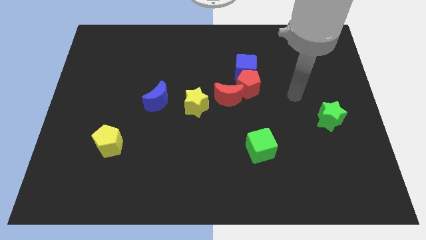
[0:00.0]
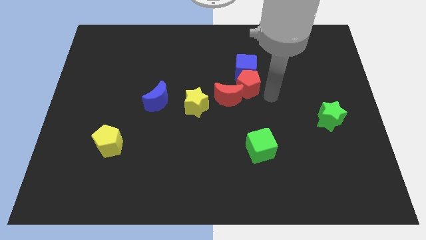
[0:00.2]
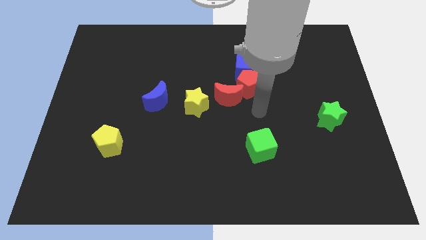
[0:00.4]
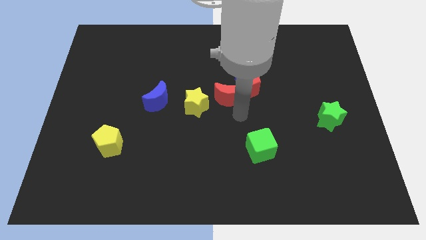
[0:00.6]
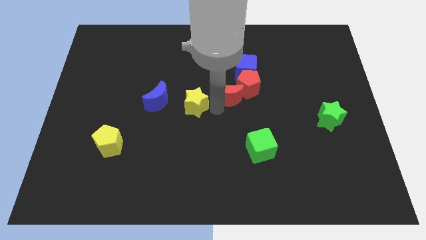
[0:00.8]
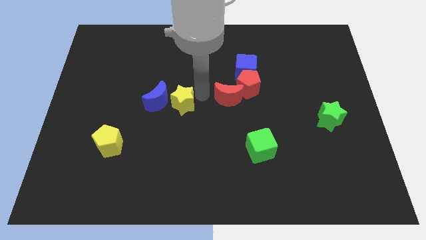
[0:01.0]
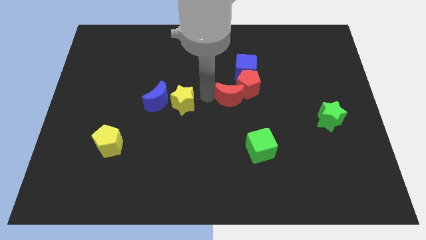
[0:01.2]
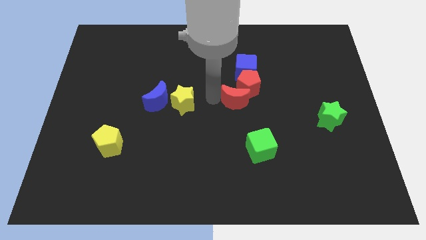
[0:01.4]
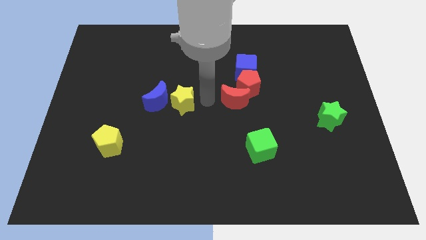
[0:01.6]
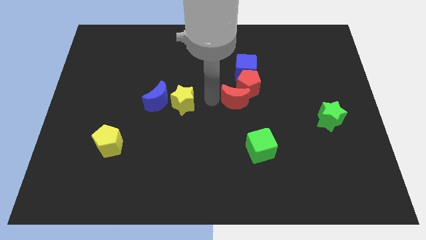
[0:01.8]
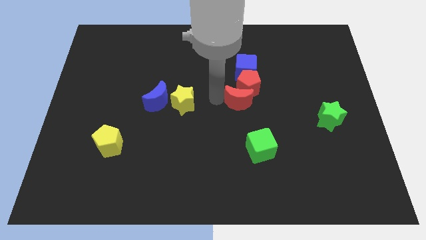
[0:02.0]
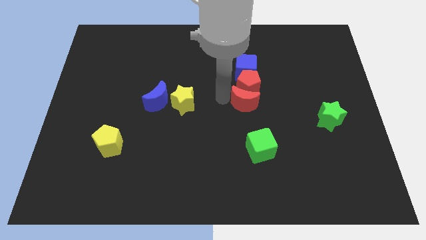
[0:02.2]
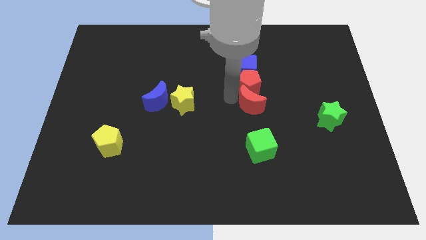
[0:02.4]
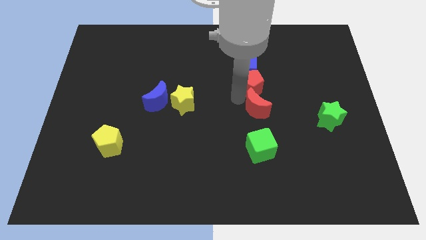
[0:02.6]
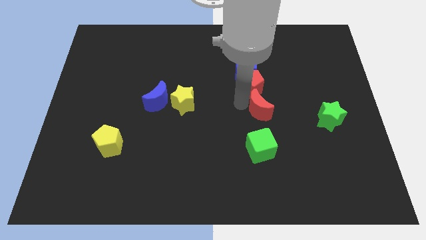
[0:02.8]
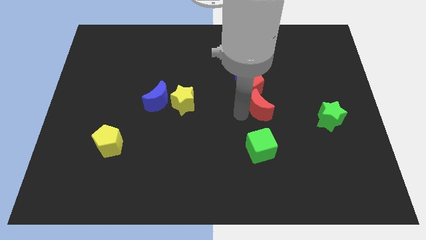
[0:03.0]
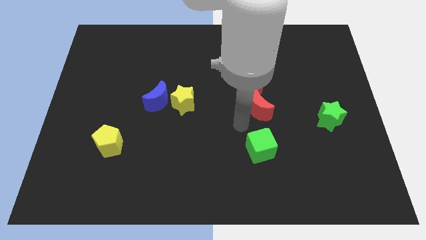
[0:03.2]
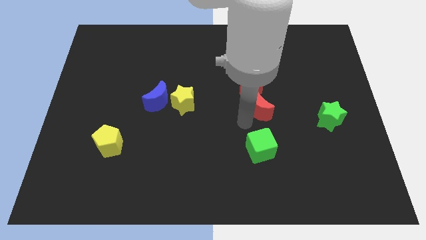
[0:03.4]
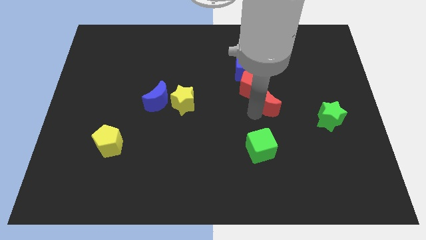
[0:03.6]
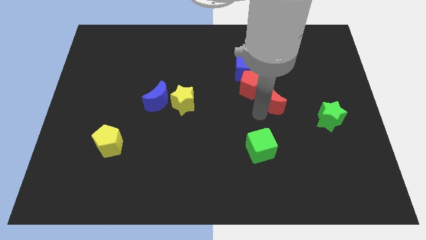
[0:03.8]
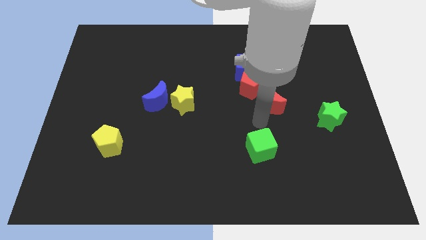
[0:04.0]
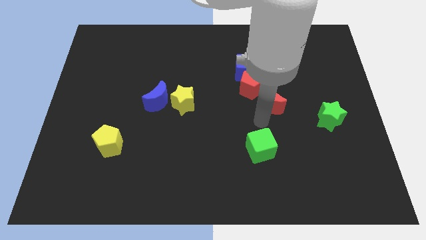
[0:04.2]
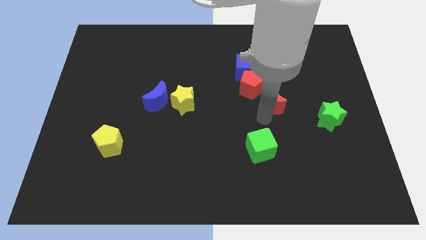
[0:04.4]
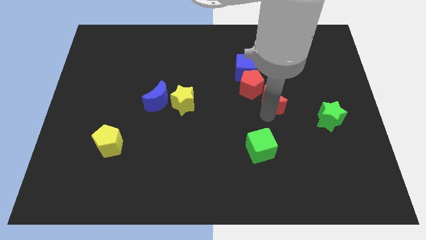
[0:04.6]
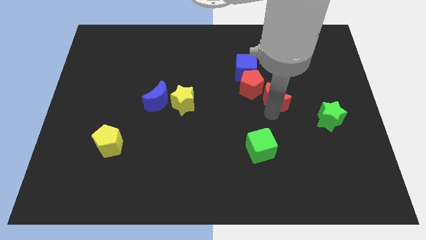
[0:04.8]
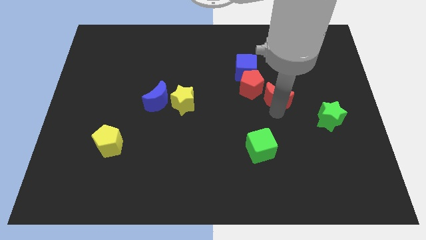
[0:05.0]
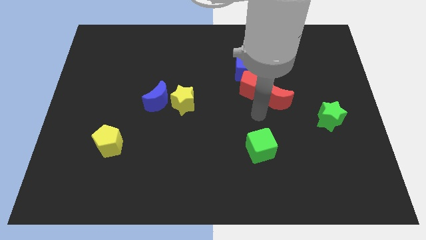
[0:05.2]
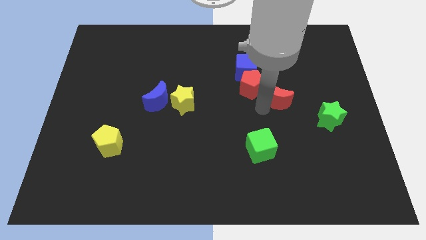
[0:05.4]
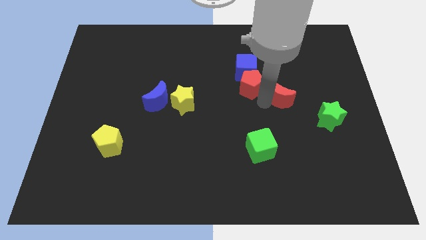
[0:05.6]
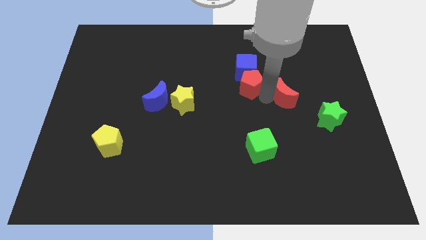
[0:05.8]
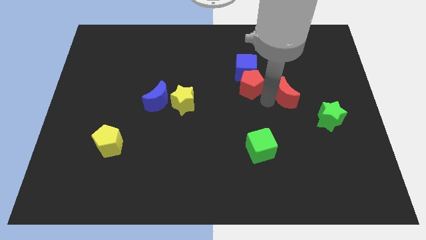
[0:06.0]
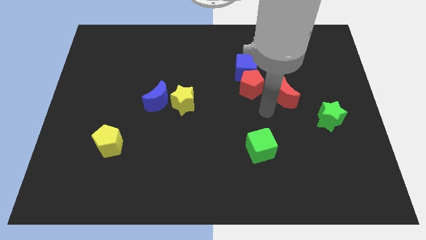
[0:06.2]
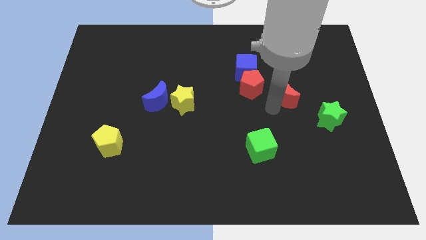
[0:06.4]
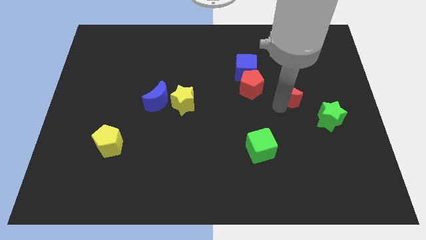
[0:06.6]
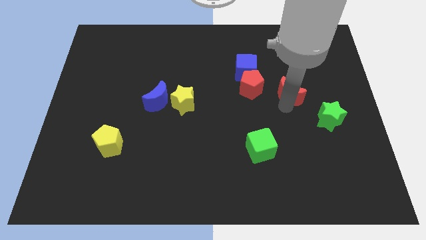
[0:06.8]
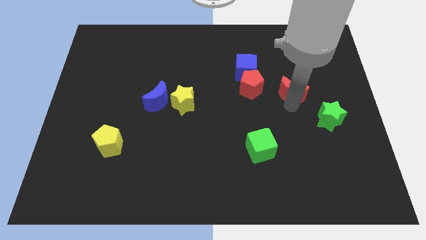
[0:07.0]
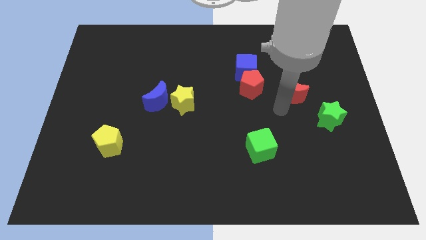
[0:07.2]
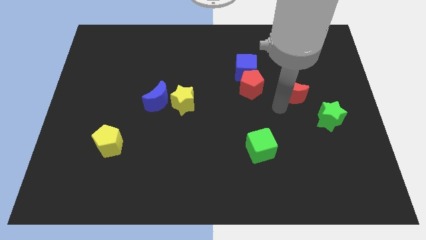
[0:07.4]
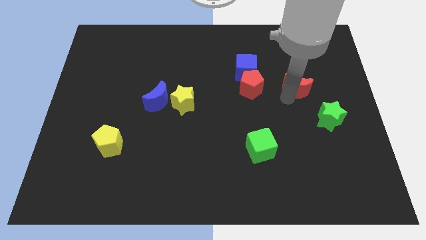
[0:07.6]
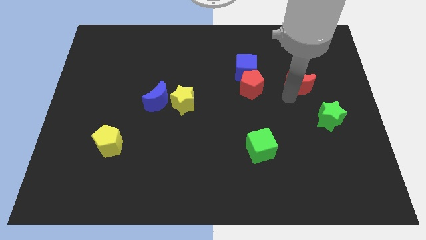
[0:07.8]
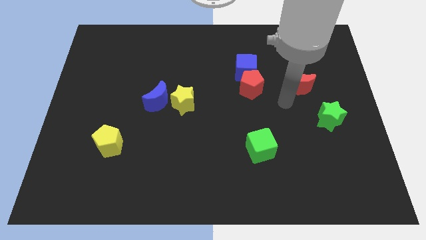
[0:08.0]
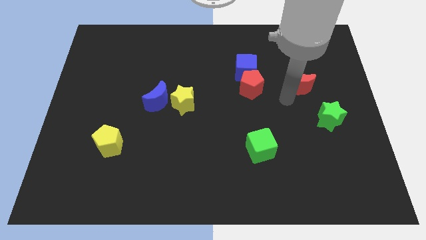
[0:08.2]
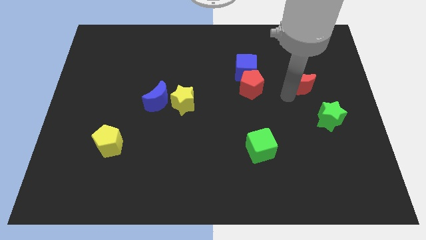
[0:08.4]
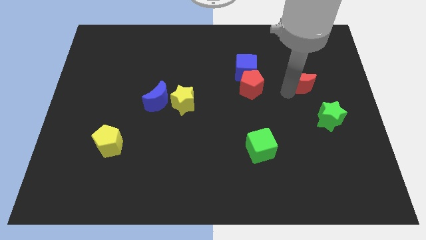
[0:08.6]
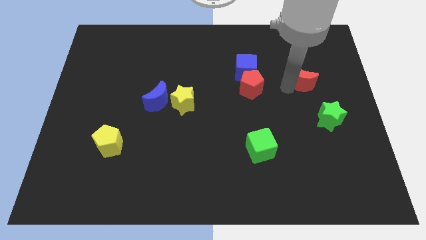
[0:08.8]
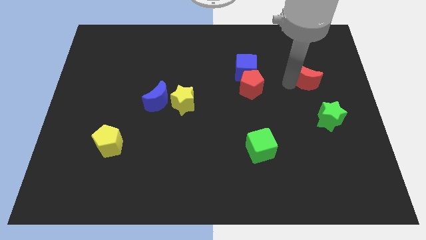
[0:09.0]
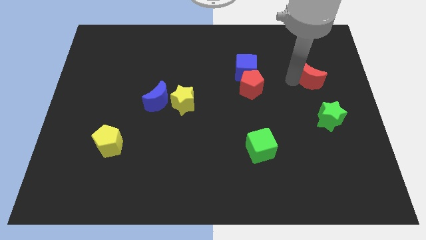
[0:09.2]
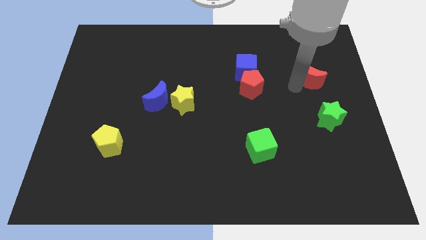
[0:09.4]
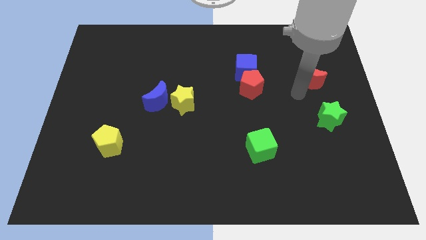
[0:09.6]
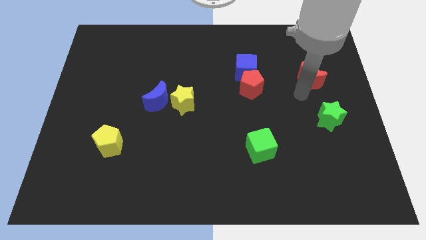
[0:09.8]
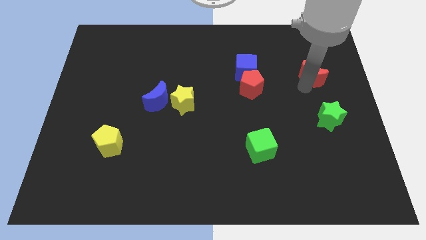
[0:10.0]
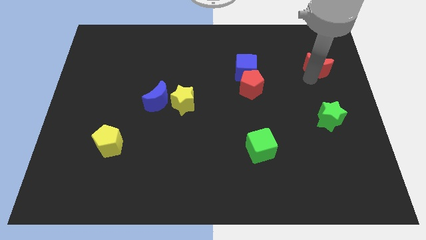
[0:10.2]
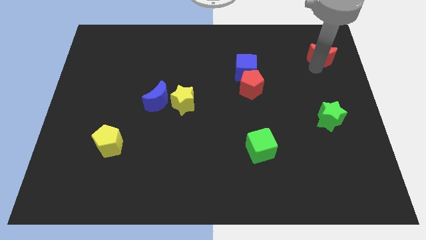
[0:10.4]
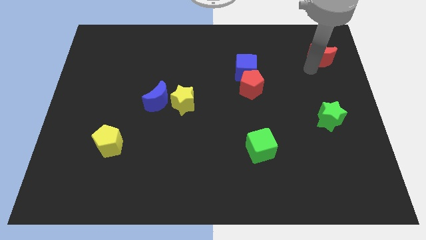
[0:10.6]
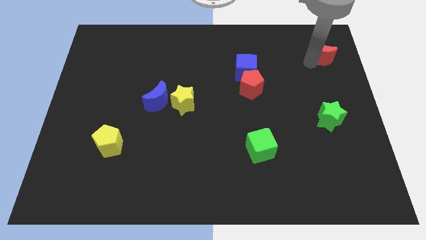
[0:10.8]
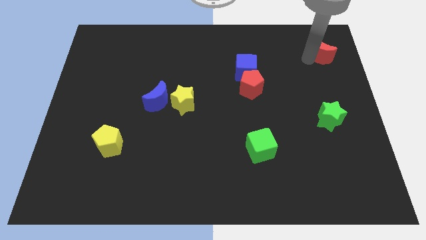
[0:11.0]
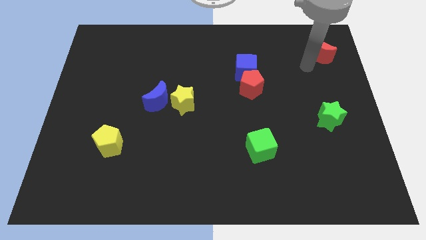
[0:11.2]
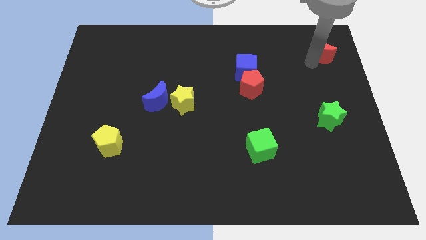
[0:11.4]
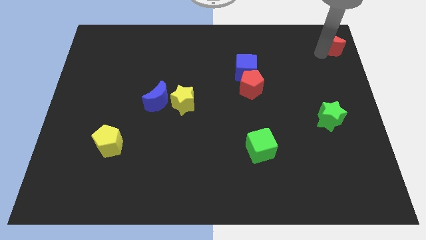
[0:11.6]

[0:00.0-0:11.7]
push the red moon to the top right corner
